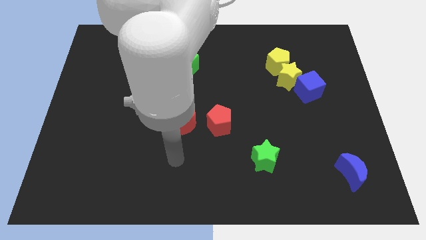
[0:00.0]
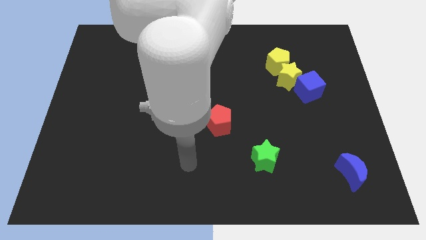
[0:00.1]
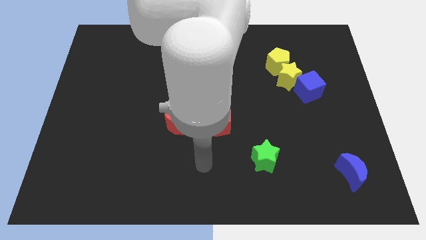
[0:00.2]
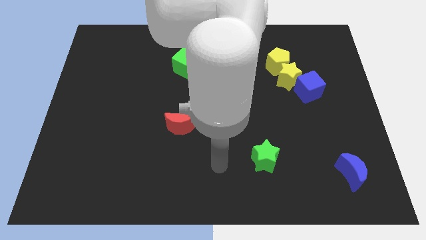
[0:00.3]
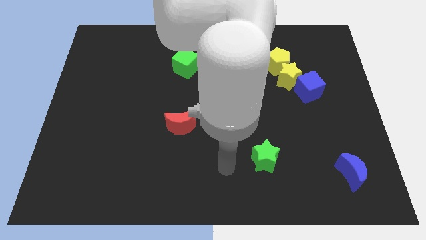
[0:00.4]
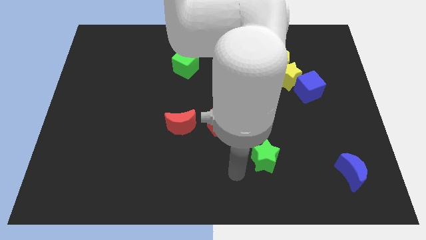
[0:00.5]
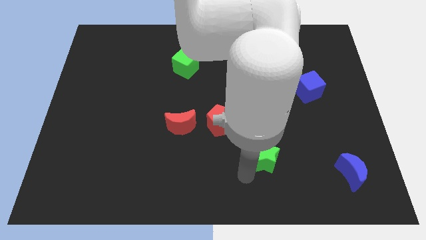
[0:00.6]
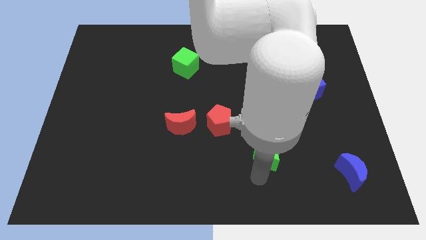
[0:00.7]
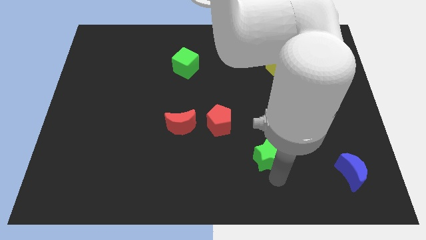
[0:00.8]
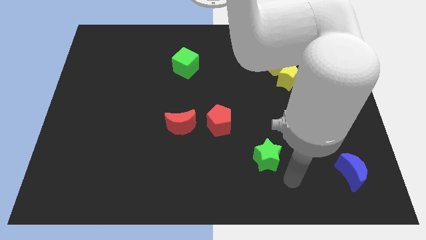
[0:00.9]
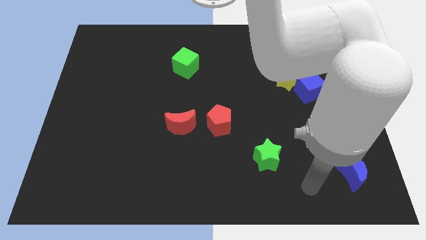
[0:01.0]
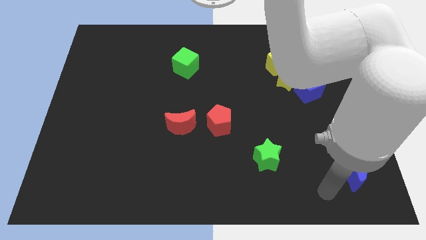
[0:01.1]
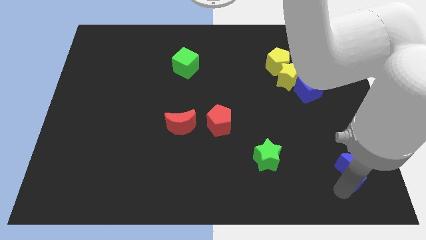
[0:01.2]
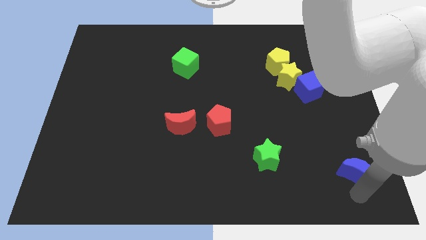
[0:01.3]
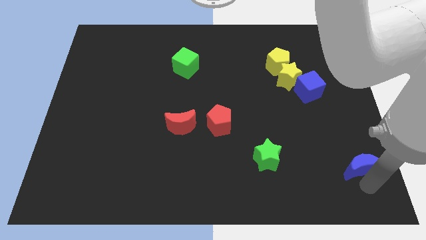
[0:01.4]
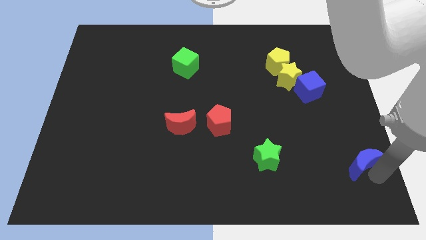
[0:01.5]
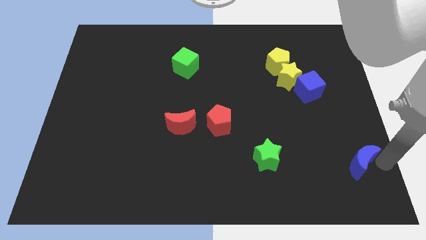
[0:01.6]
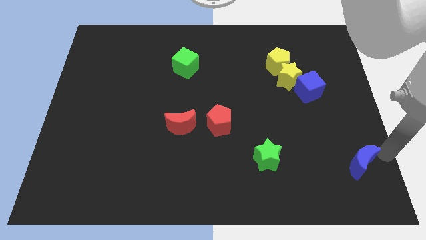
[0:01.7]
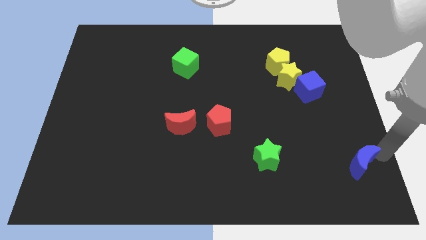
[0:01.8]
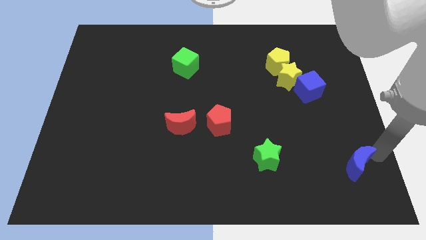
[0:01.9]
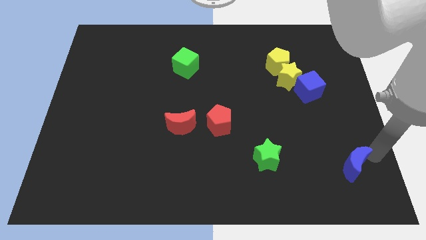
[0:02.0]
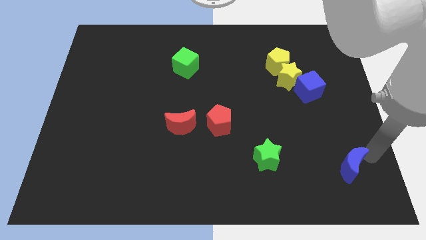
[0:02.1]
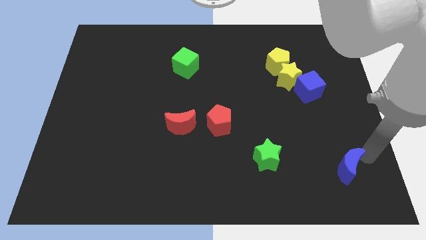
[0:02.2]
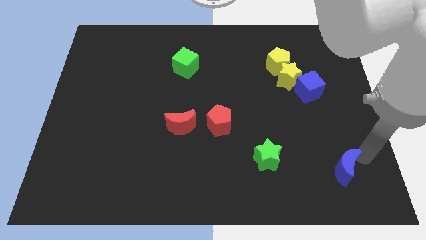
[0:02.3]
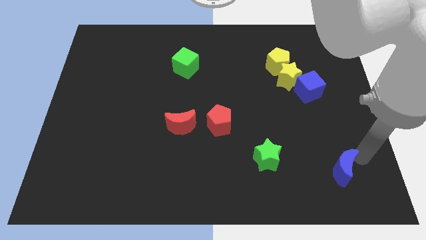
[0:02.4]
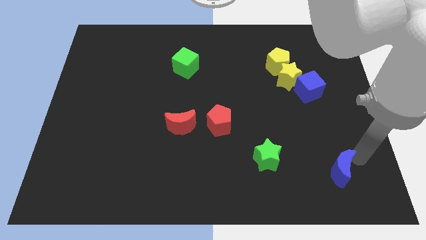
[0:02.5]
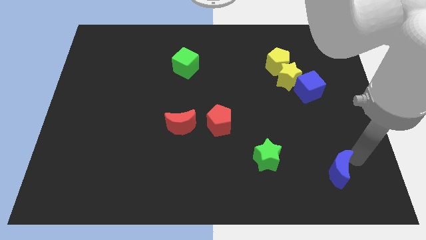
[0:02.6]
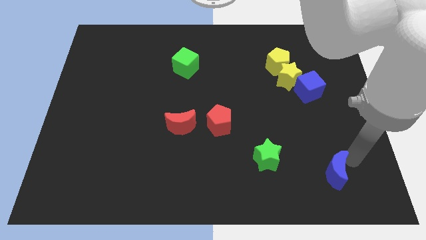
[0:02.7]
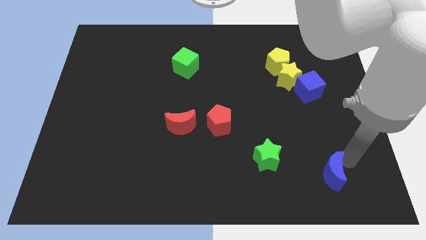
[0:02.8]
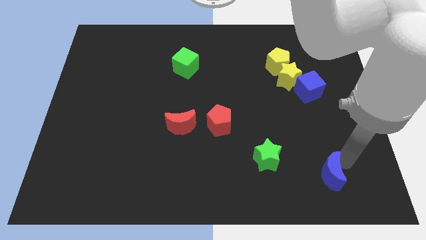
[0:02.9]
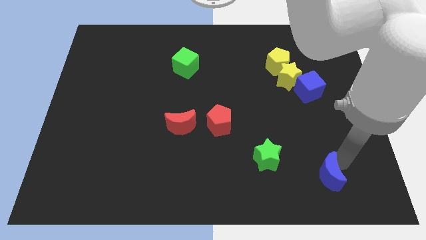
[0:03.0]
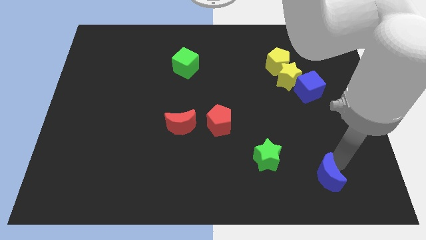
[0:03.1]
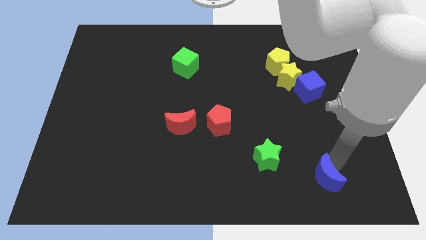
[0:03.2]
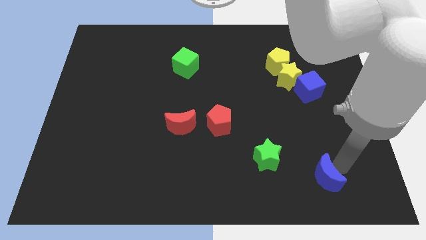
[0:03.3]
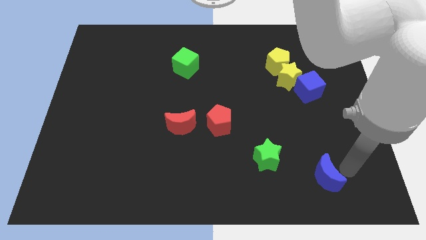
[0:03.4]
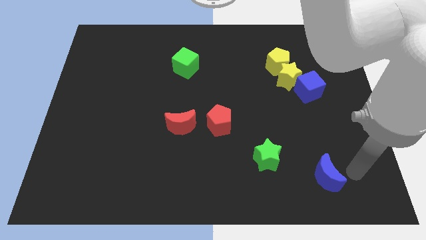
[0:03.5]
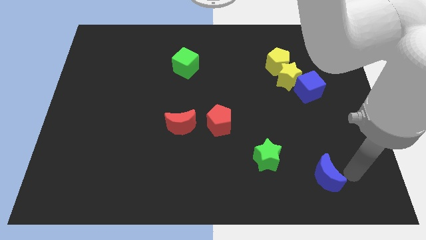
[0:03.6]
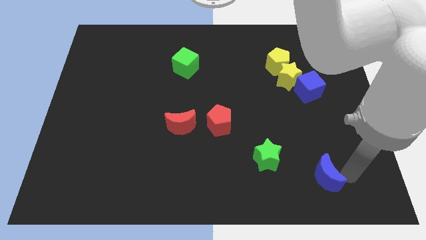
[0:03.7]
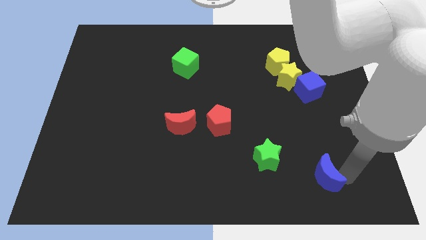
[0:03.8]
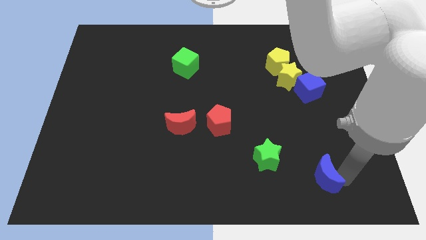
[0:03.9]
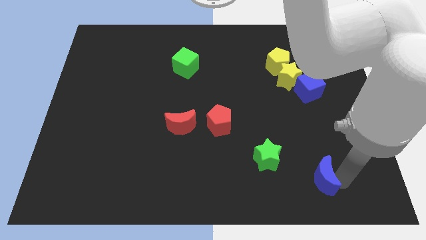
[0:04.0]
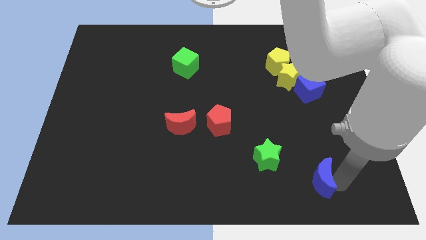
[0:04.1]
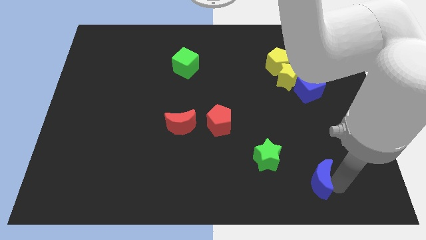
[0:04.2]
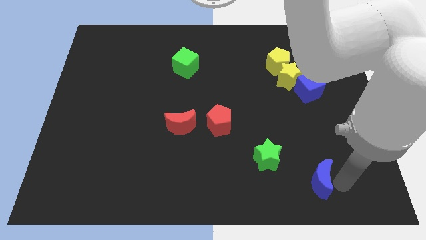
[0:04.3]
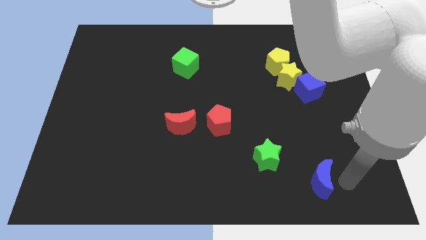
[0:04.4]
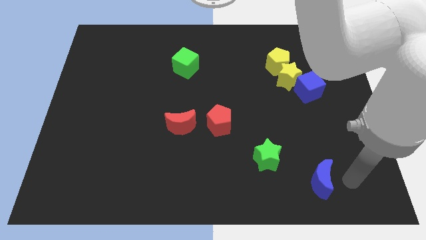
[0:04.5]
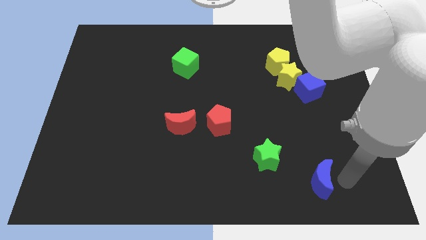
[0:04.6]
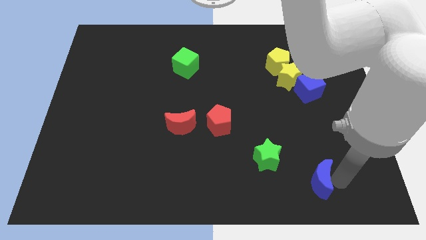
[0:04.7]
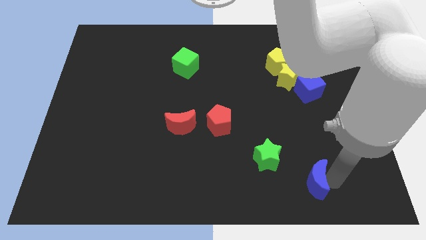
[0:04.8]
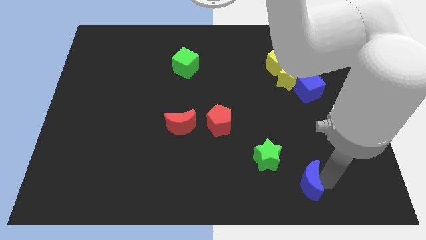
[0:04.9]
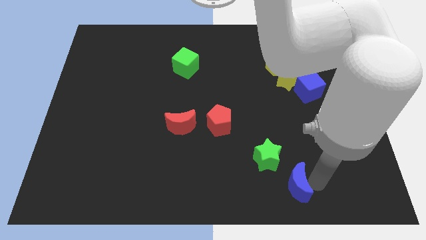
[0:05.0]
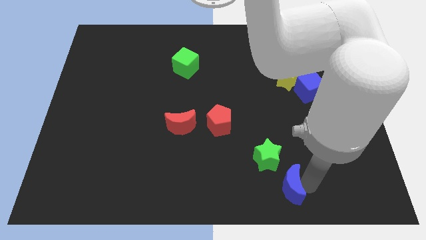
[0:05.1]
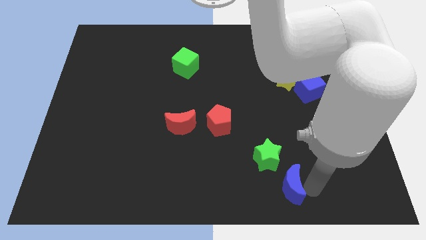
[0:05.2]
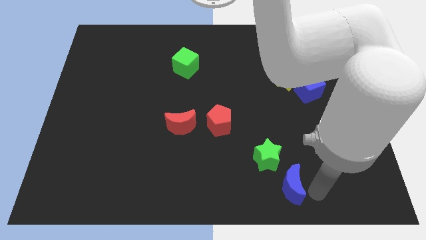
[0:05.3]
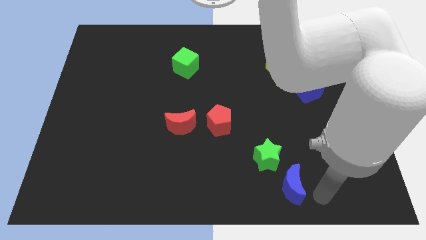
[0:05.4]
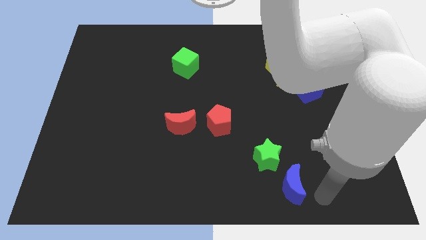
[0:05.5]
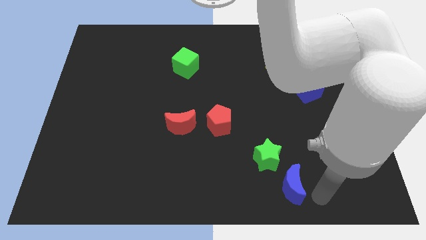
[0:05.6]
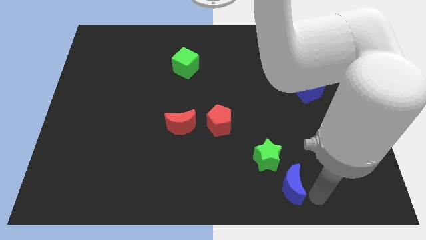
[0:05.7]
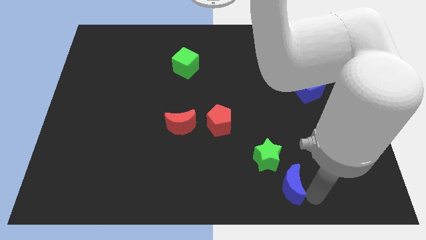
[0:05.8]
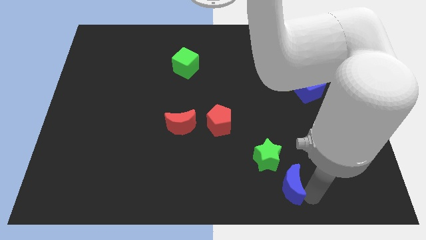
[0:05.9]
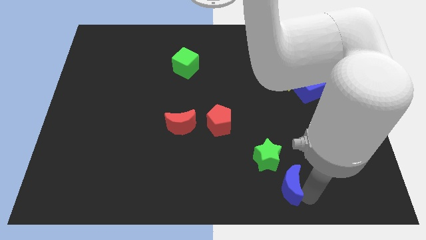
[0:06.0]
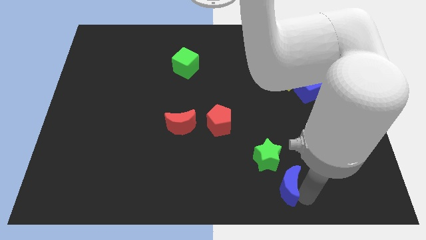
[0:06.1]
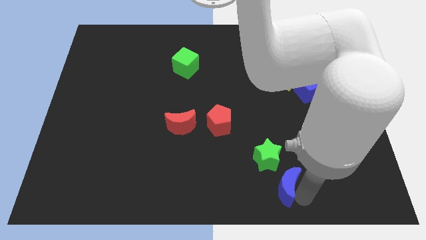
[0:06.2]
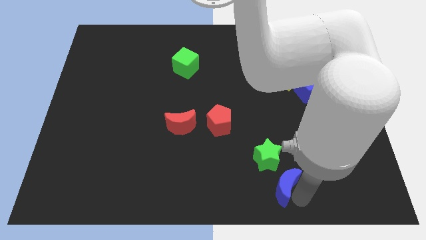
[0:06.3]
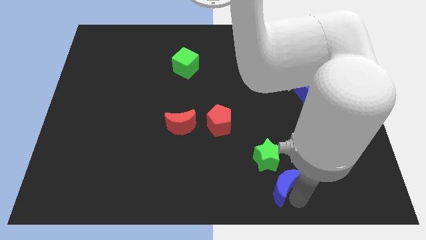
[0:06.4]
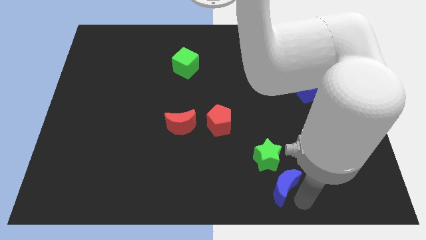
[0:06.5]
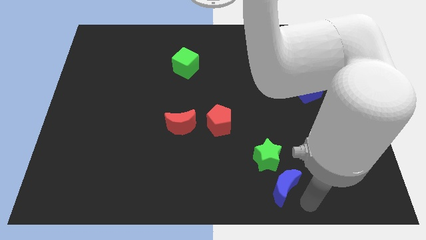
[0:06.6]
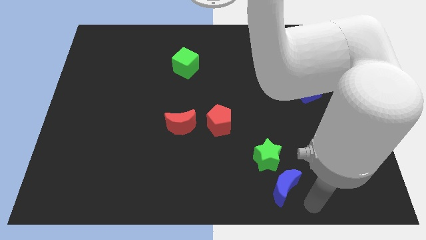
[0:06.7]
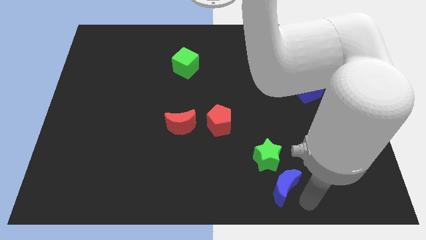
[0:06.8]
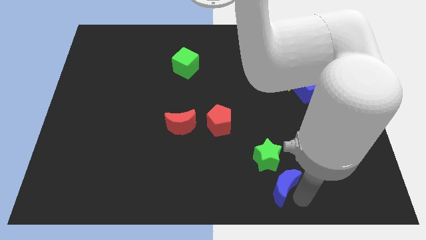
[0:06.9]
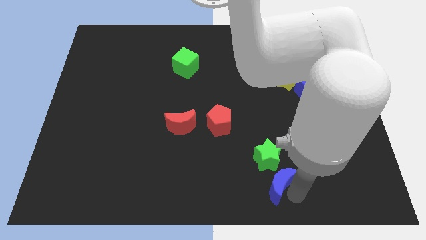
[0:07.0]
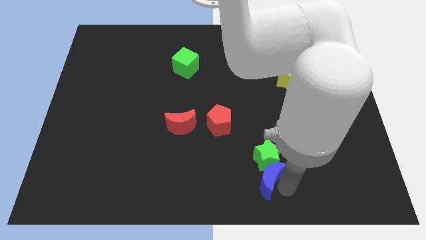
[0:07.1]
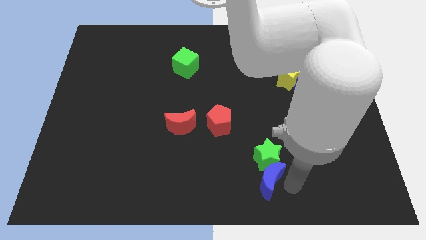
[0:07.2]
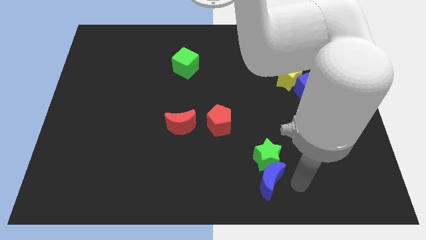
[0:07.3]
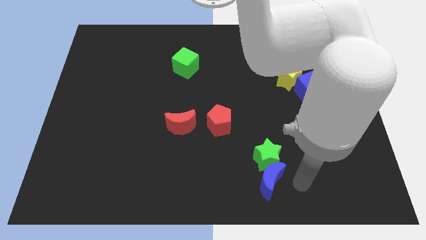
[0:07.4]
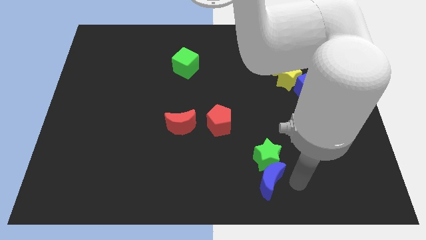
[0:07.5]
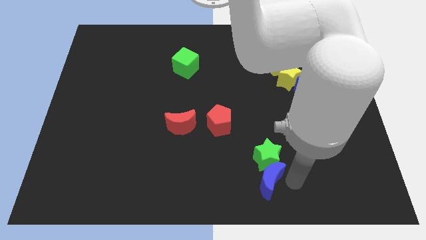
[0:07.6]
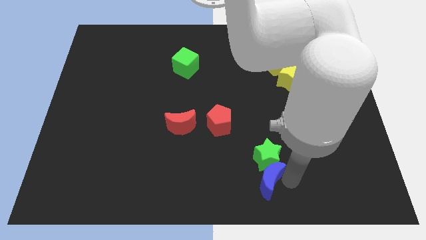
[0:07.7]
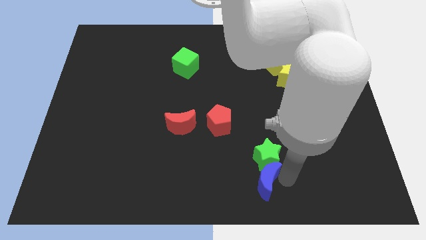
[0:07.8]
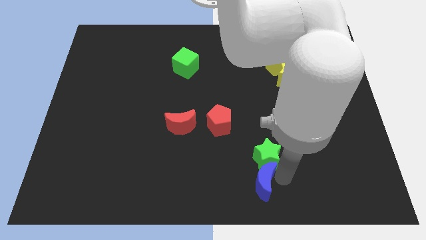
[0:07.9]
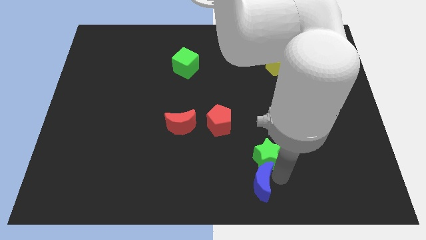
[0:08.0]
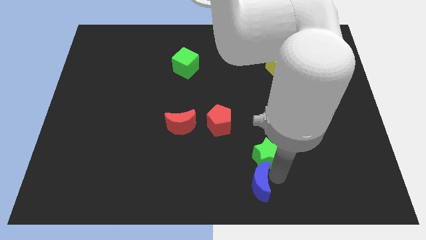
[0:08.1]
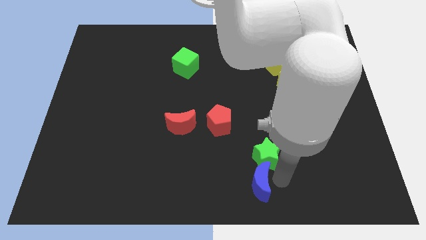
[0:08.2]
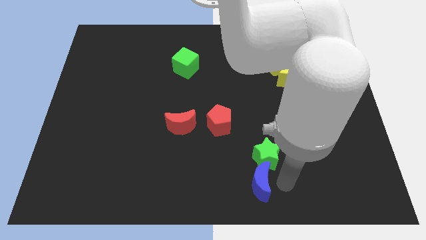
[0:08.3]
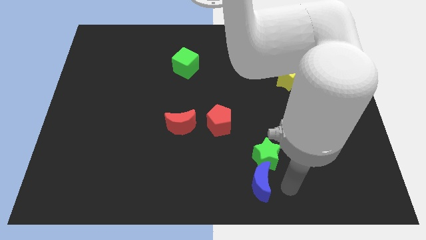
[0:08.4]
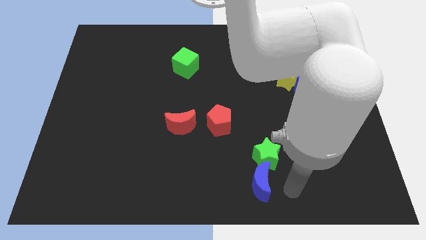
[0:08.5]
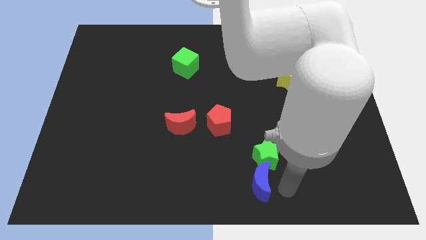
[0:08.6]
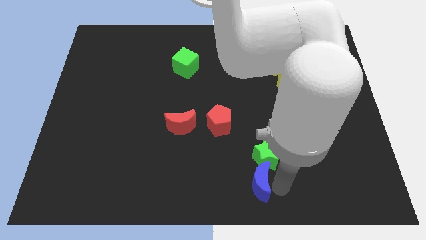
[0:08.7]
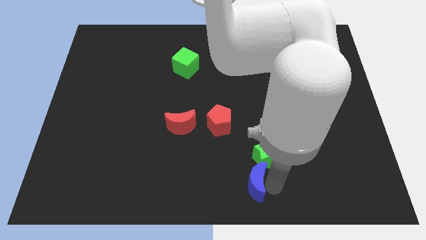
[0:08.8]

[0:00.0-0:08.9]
slide the blue moon left
